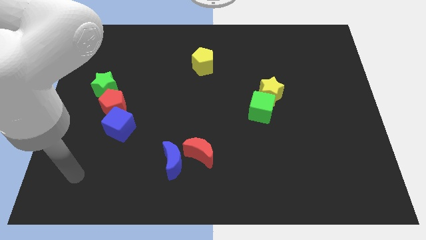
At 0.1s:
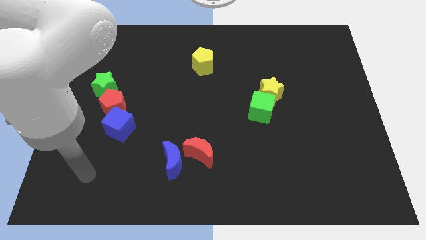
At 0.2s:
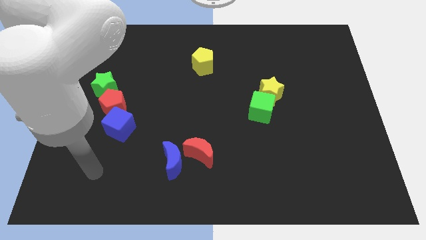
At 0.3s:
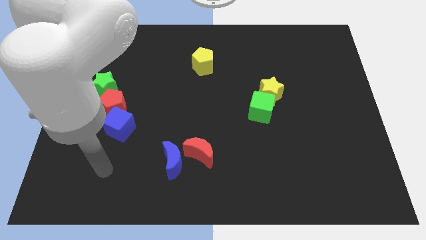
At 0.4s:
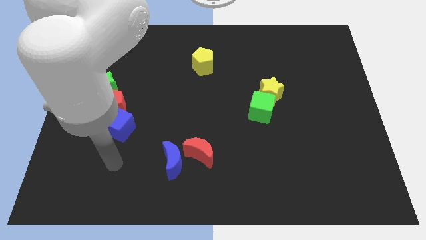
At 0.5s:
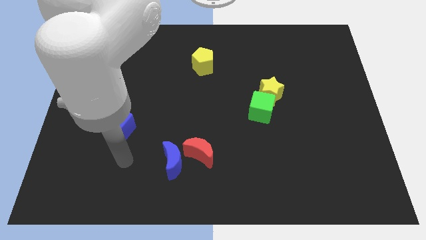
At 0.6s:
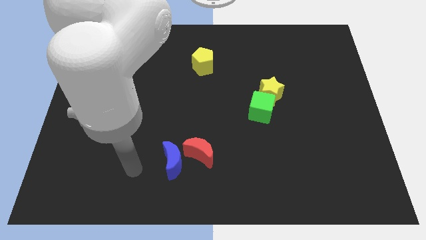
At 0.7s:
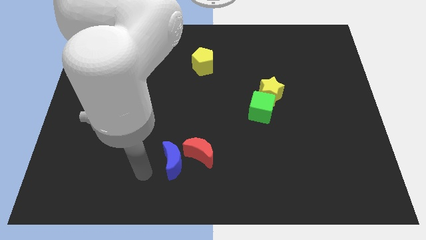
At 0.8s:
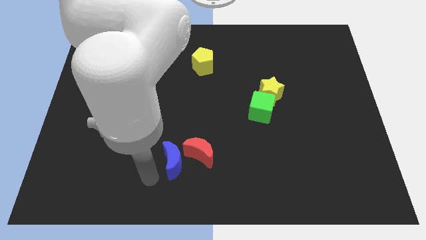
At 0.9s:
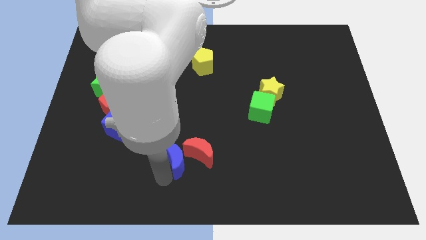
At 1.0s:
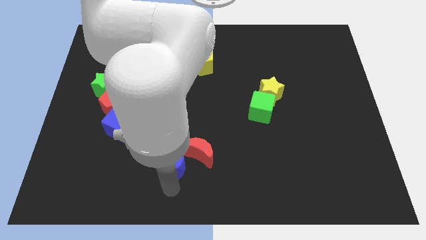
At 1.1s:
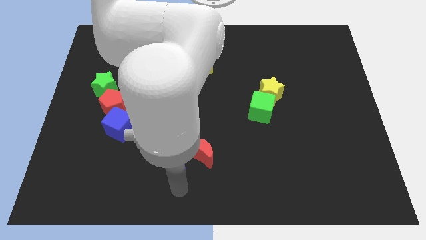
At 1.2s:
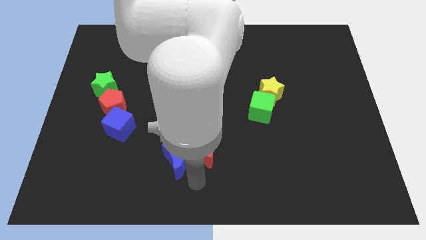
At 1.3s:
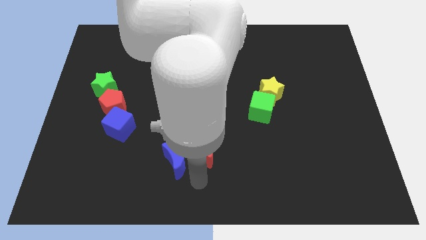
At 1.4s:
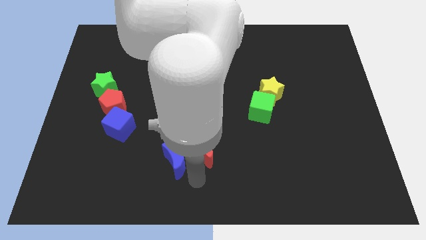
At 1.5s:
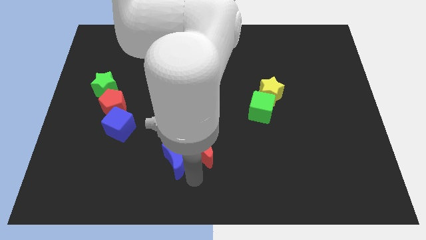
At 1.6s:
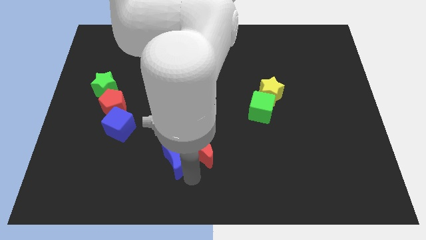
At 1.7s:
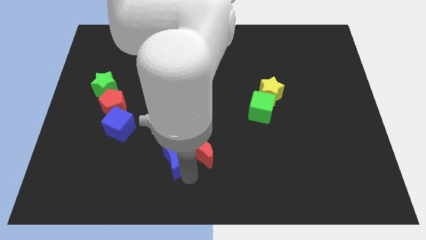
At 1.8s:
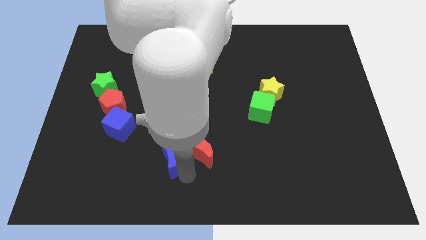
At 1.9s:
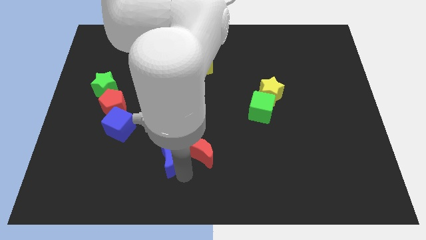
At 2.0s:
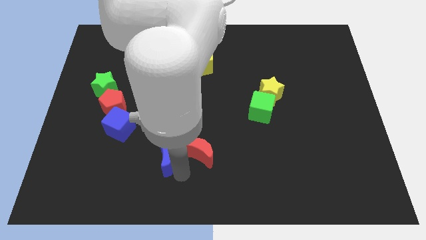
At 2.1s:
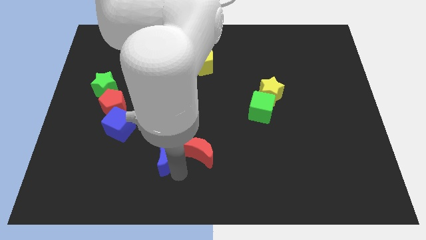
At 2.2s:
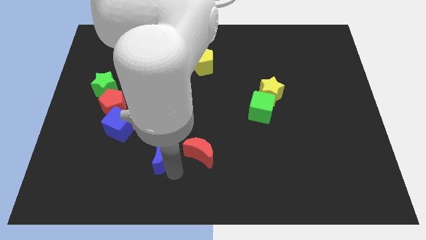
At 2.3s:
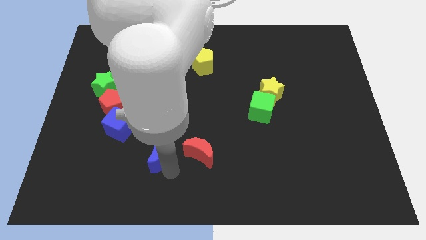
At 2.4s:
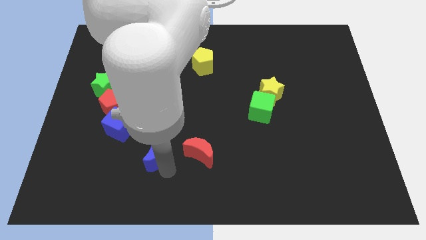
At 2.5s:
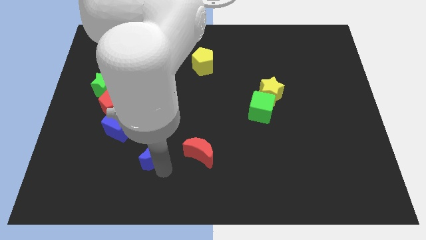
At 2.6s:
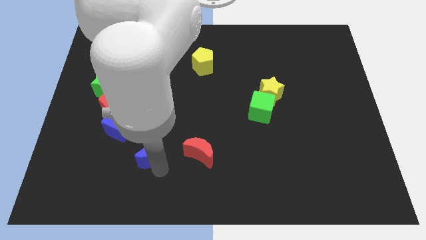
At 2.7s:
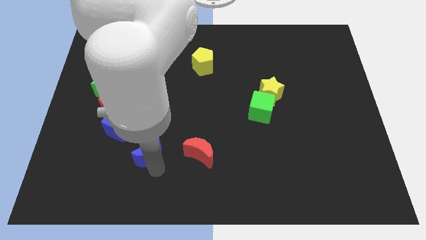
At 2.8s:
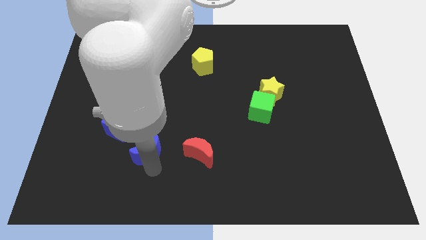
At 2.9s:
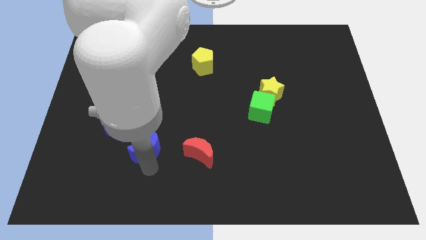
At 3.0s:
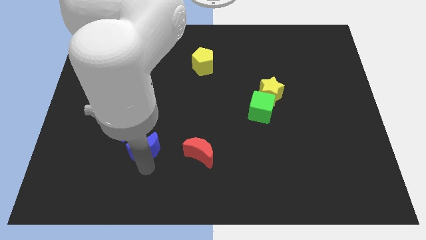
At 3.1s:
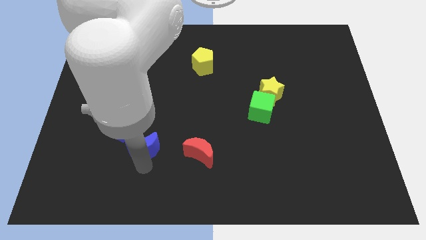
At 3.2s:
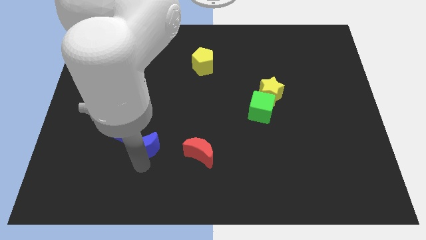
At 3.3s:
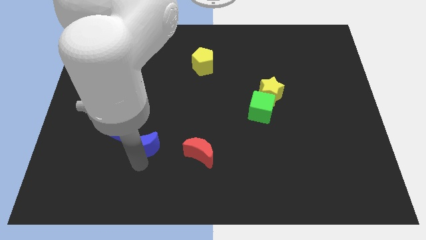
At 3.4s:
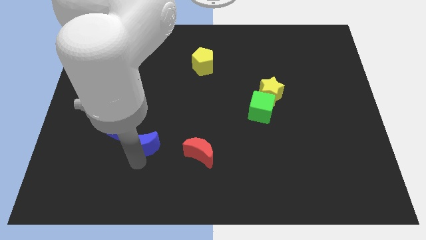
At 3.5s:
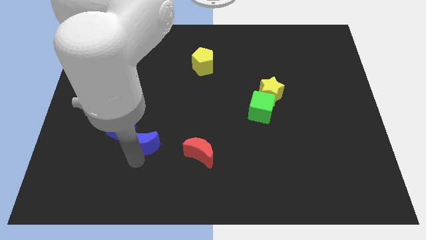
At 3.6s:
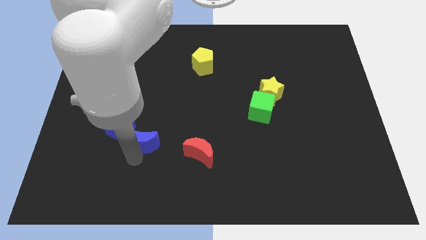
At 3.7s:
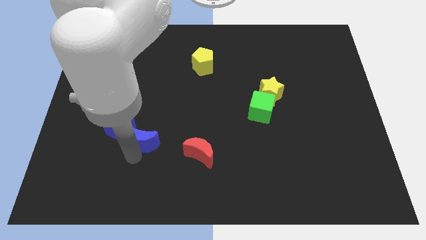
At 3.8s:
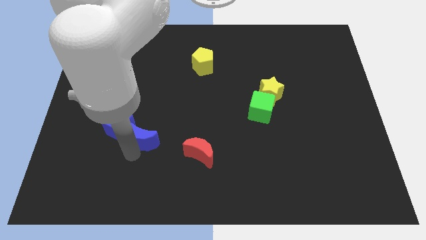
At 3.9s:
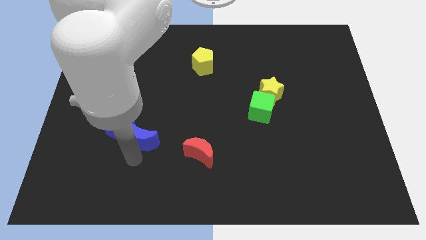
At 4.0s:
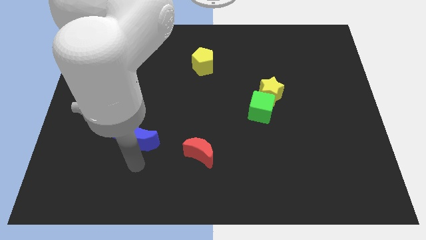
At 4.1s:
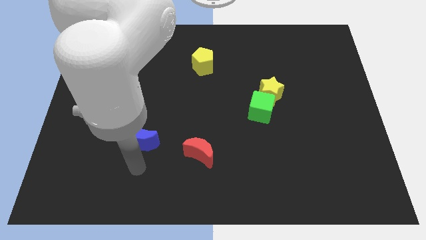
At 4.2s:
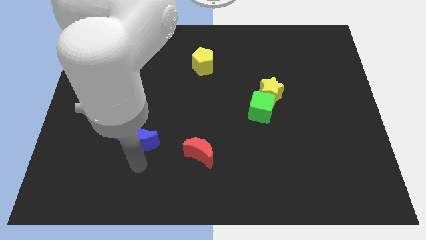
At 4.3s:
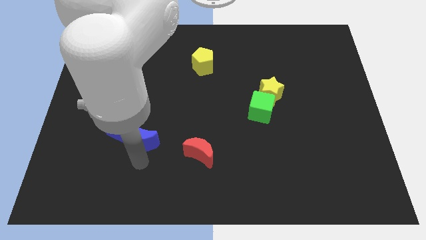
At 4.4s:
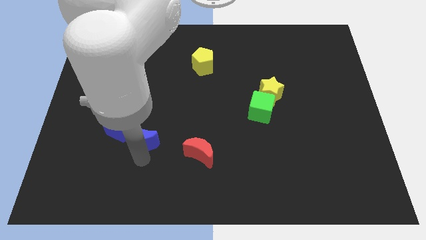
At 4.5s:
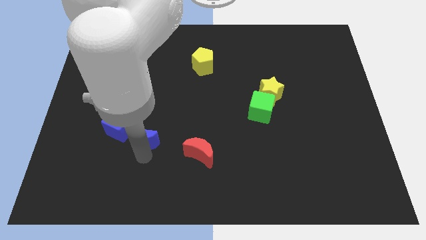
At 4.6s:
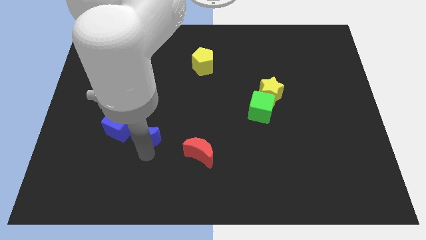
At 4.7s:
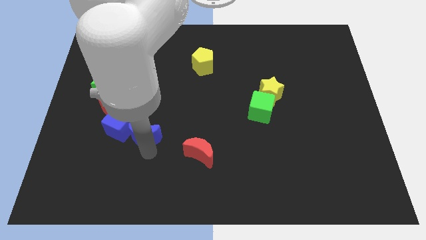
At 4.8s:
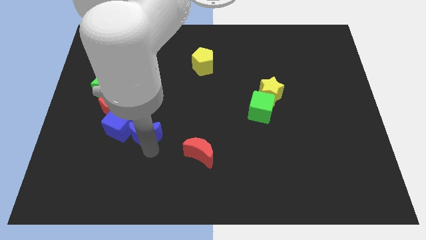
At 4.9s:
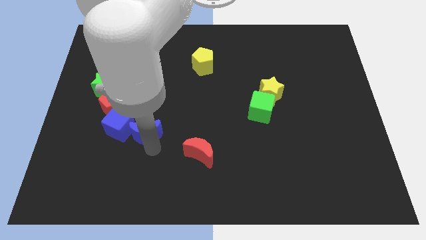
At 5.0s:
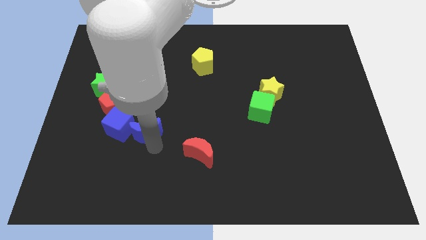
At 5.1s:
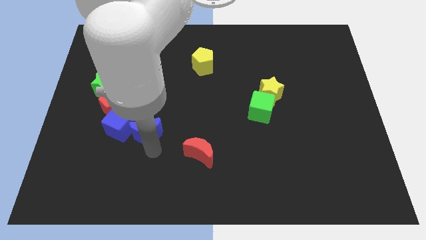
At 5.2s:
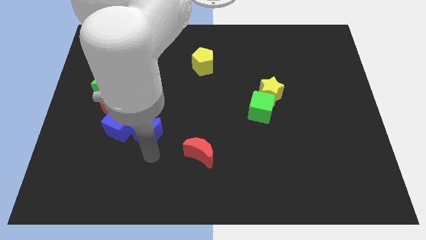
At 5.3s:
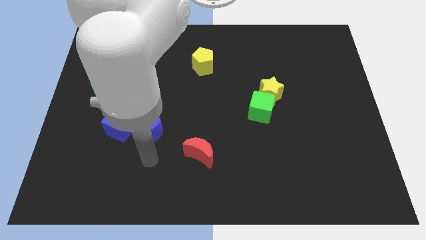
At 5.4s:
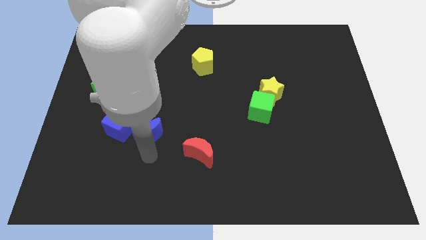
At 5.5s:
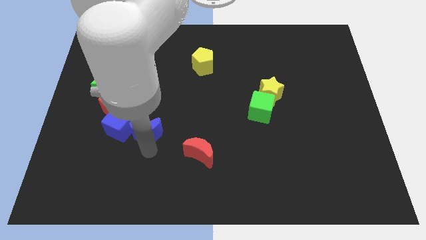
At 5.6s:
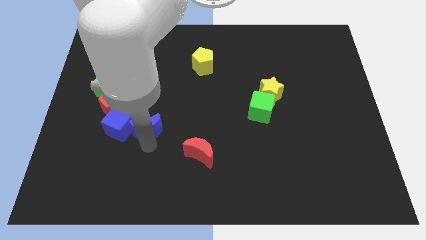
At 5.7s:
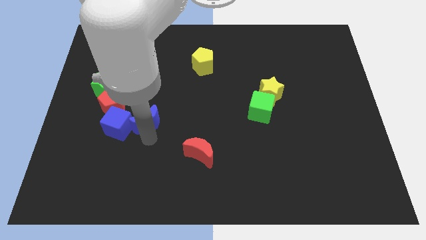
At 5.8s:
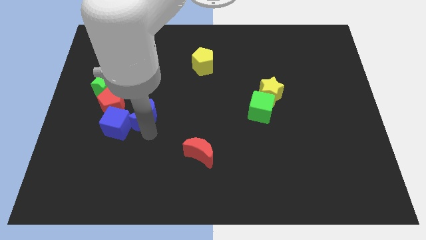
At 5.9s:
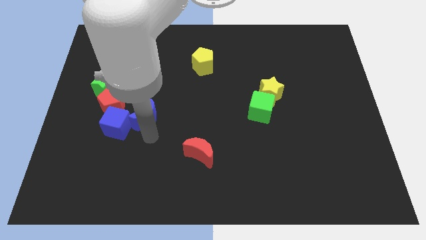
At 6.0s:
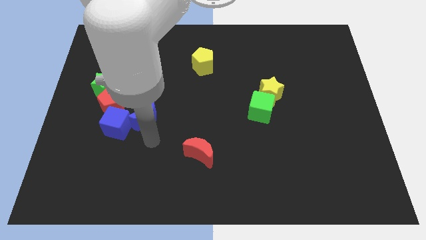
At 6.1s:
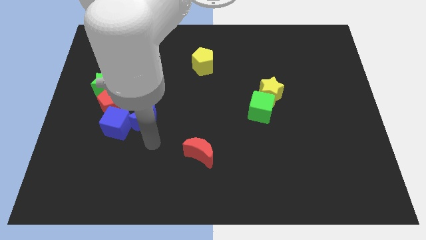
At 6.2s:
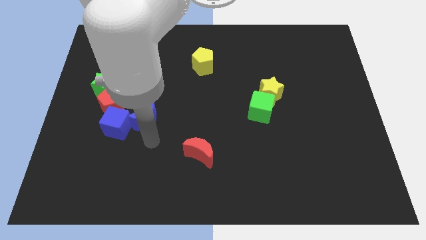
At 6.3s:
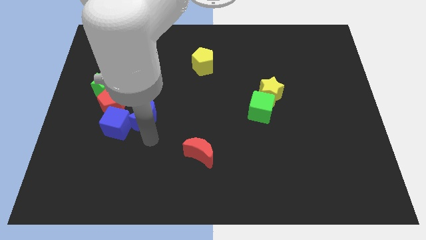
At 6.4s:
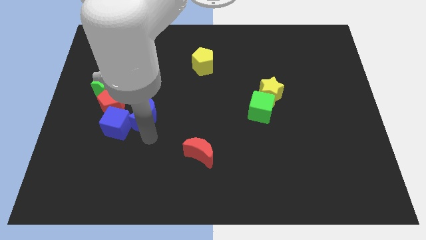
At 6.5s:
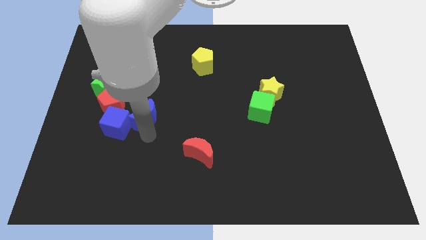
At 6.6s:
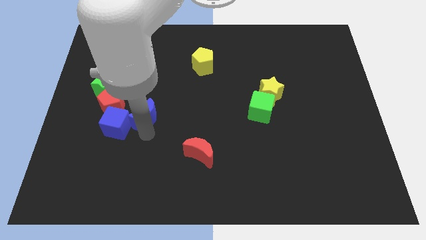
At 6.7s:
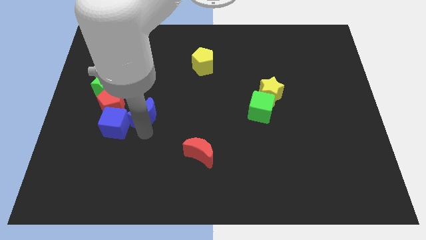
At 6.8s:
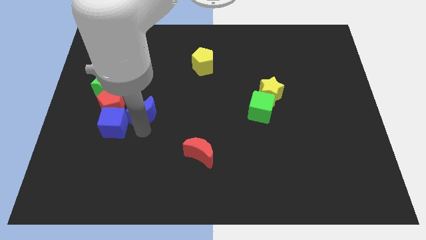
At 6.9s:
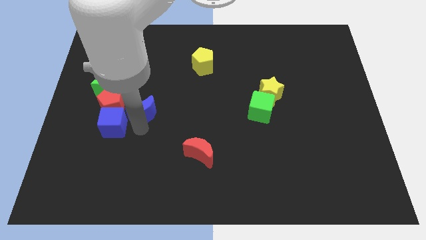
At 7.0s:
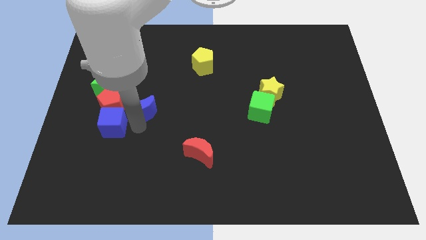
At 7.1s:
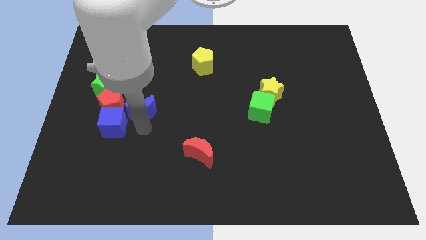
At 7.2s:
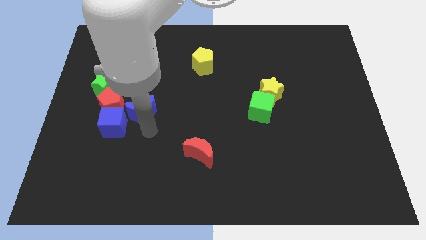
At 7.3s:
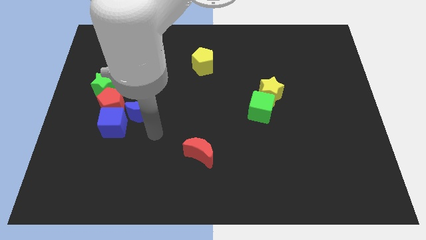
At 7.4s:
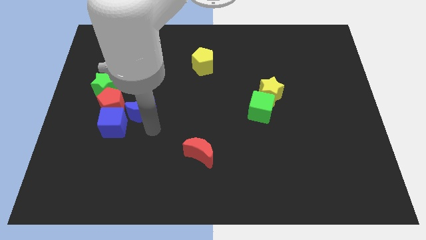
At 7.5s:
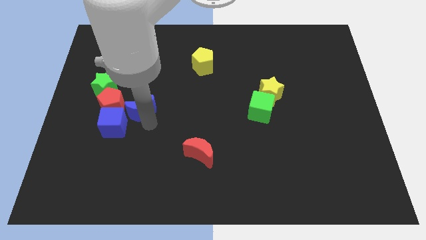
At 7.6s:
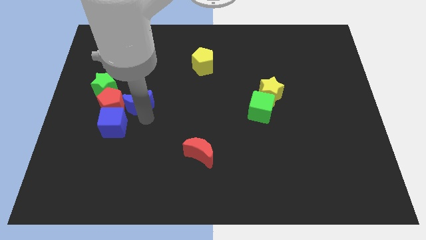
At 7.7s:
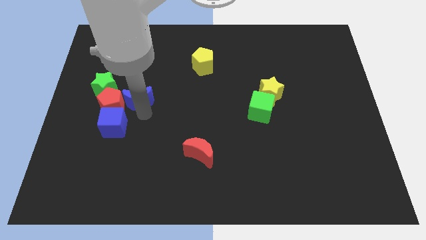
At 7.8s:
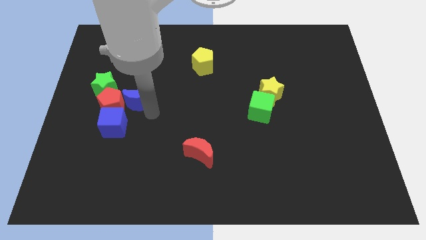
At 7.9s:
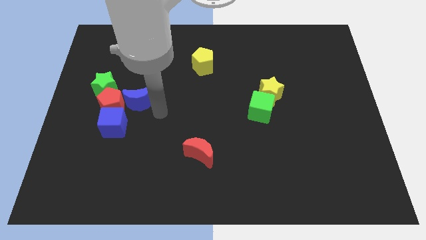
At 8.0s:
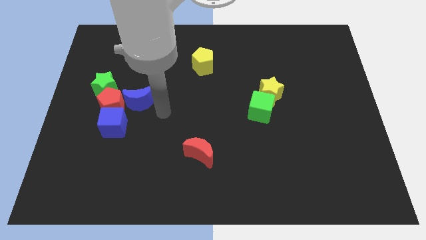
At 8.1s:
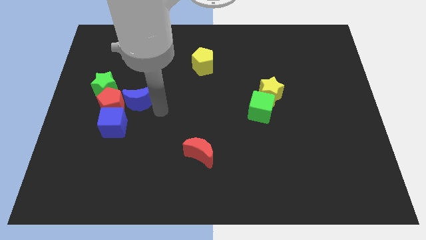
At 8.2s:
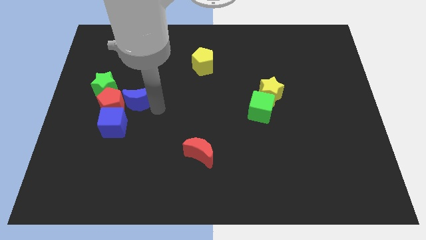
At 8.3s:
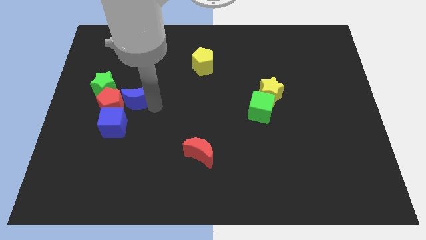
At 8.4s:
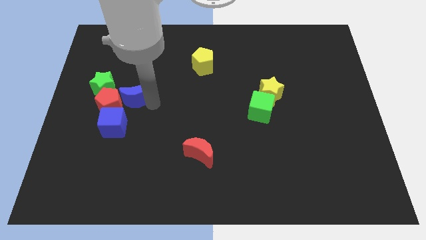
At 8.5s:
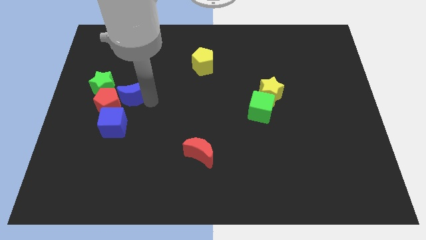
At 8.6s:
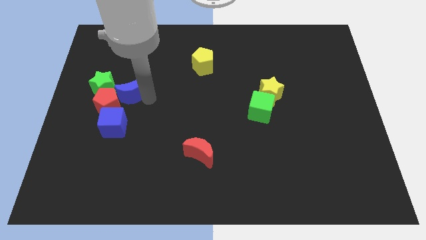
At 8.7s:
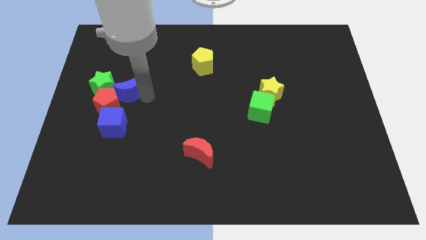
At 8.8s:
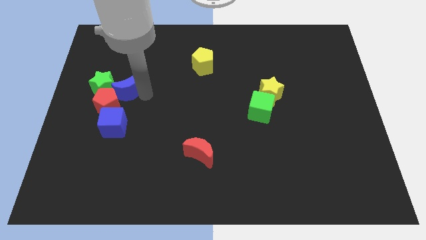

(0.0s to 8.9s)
slide the blue moon to the green star
